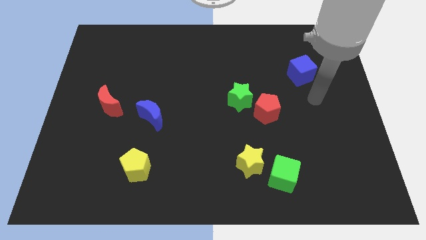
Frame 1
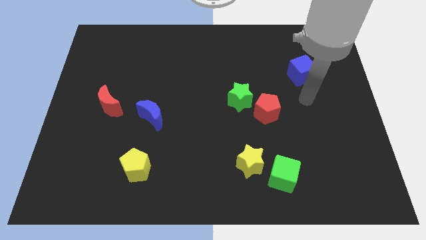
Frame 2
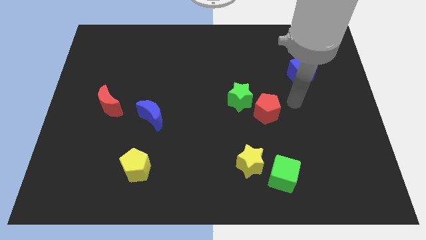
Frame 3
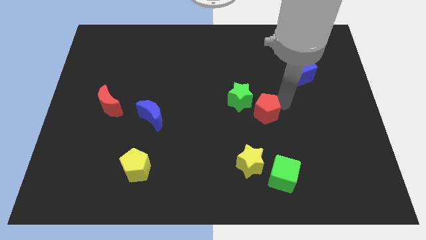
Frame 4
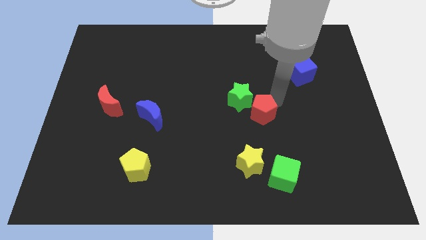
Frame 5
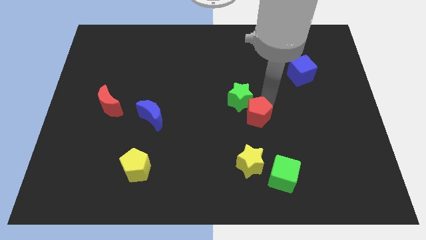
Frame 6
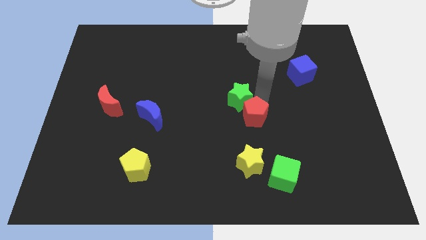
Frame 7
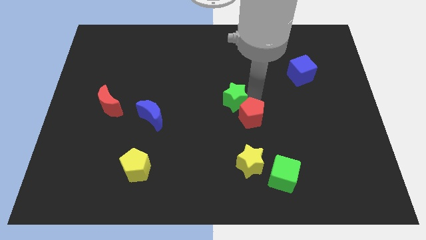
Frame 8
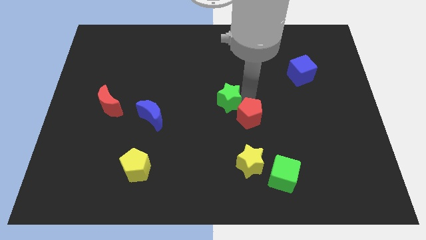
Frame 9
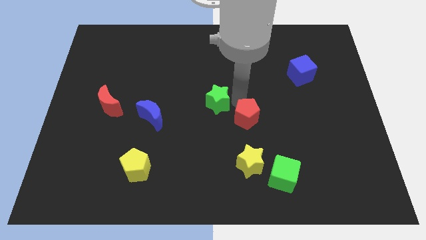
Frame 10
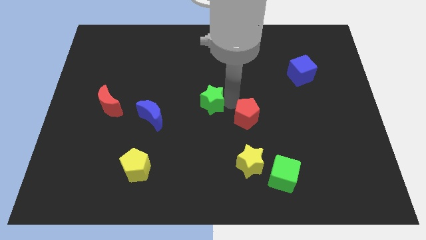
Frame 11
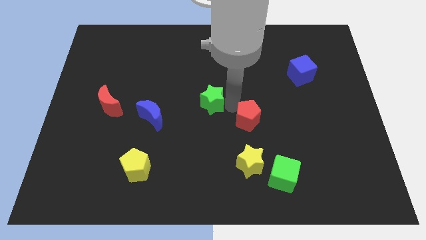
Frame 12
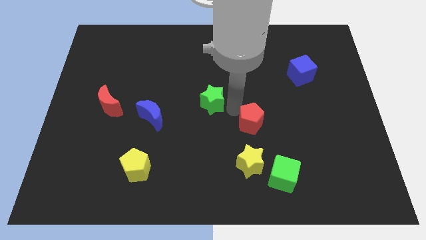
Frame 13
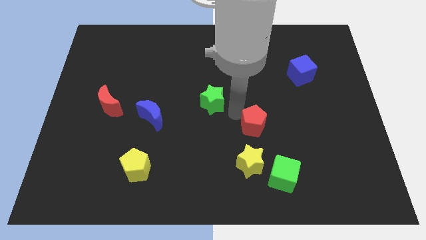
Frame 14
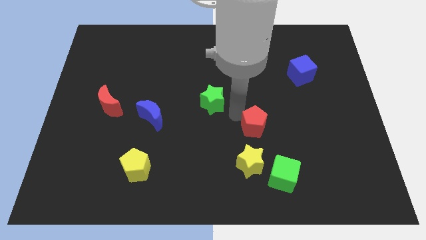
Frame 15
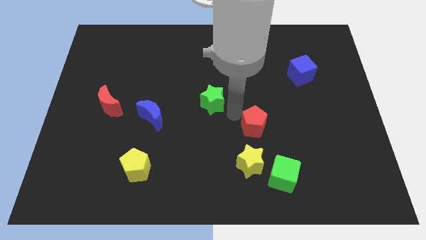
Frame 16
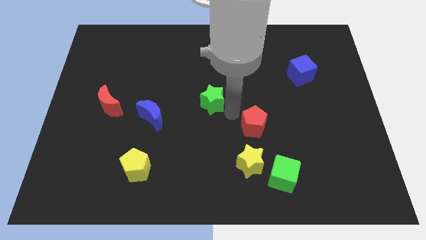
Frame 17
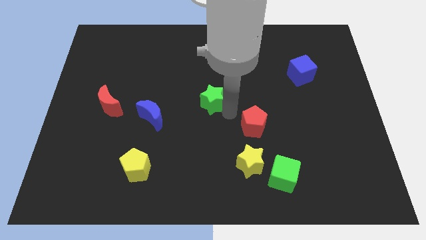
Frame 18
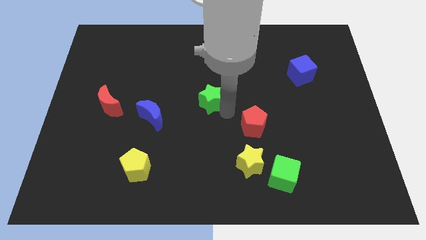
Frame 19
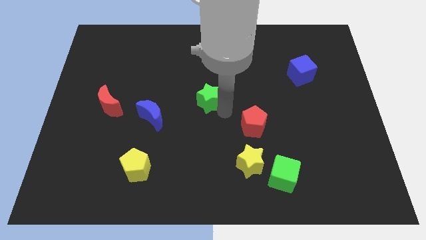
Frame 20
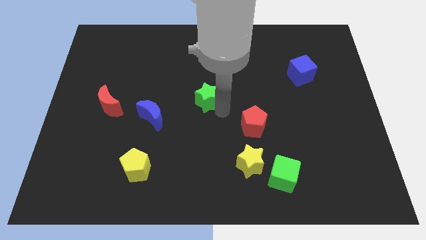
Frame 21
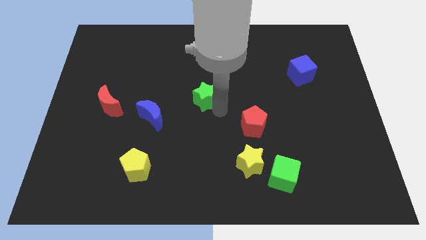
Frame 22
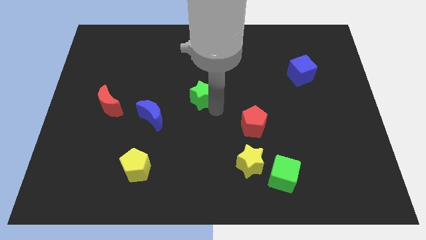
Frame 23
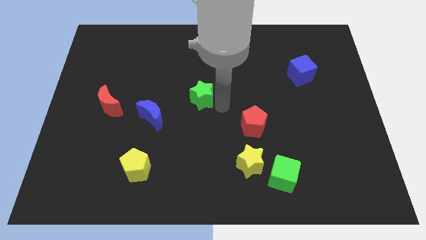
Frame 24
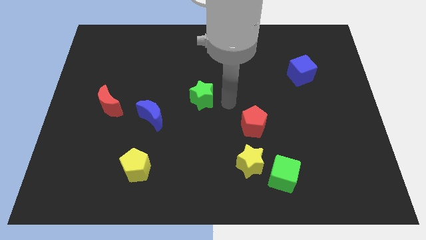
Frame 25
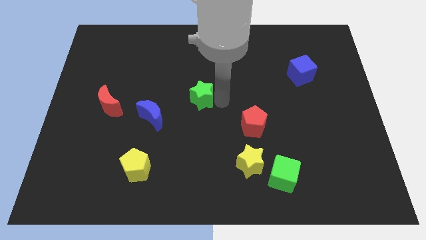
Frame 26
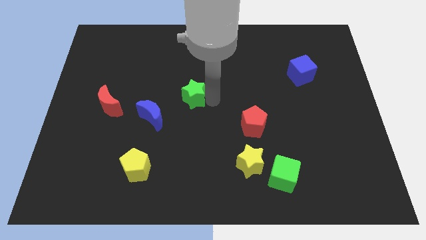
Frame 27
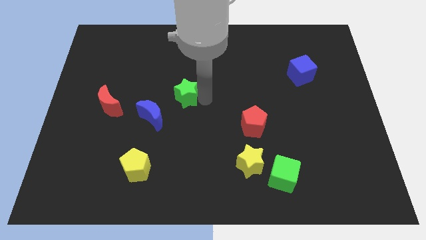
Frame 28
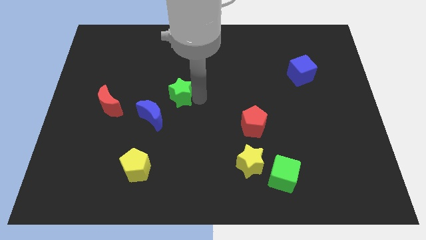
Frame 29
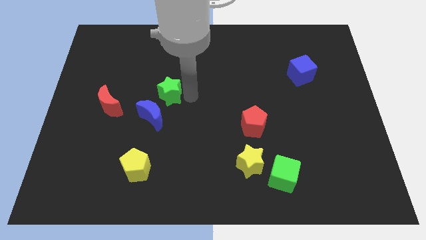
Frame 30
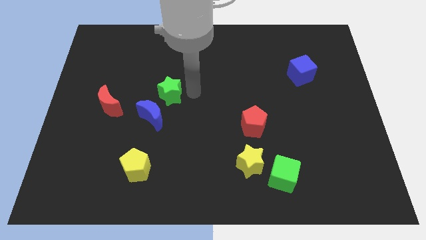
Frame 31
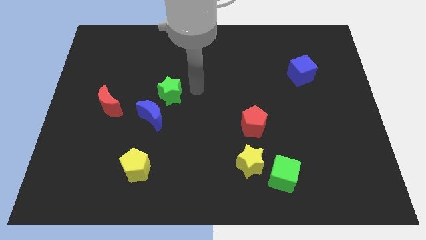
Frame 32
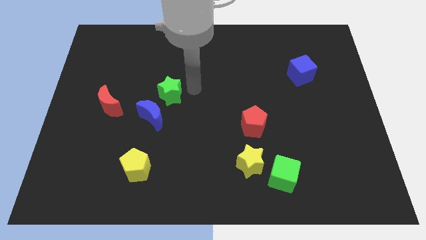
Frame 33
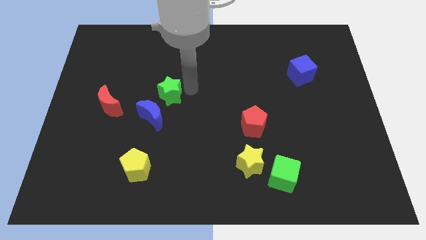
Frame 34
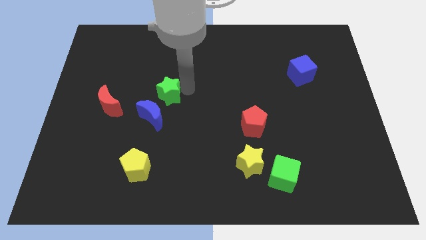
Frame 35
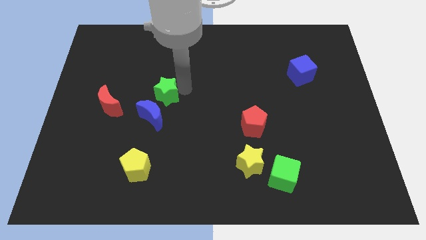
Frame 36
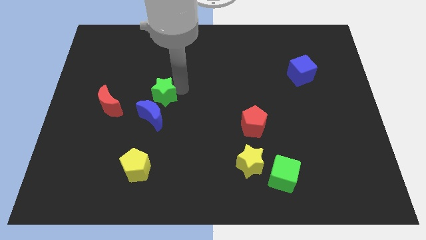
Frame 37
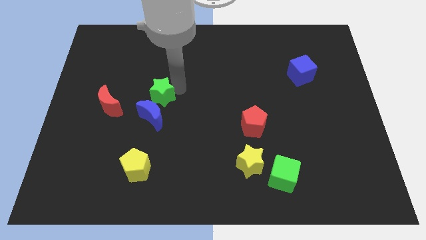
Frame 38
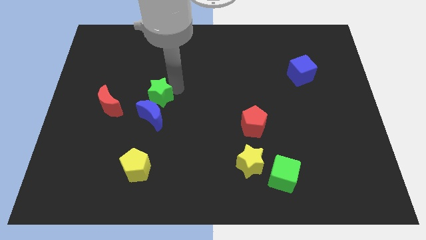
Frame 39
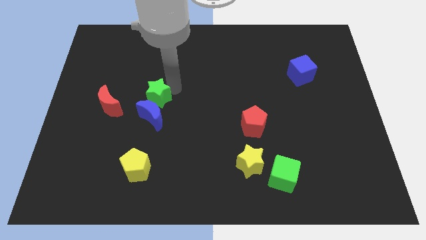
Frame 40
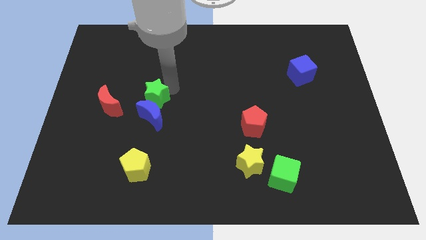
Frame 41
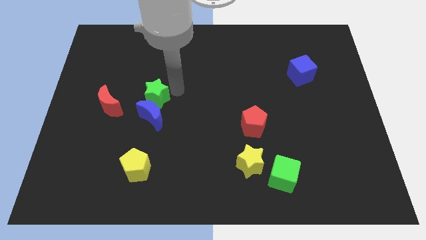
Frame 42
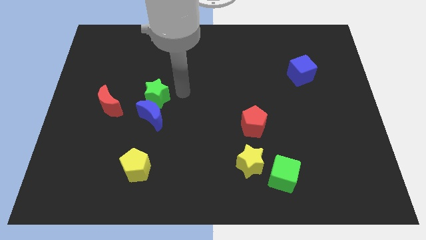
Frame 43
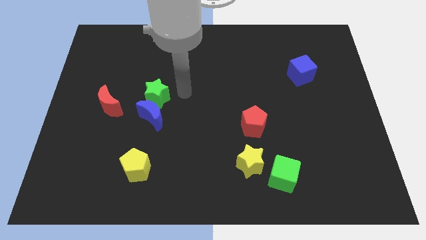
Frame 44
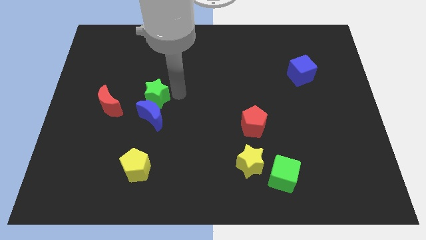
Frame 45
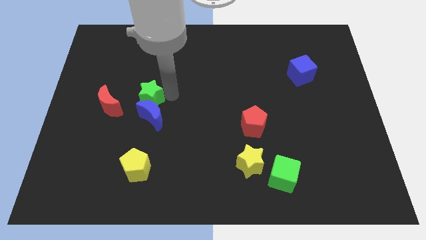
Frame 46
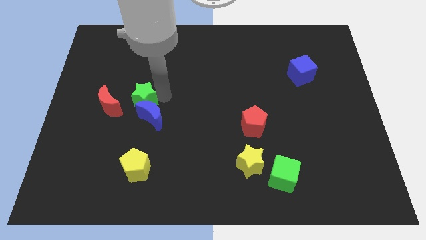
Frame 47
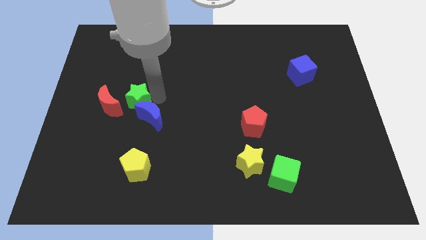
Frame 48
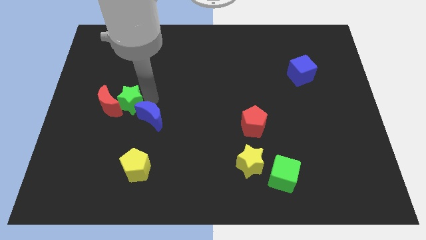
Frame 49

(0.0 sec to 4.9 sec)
move the green star towards the red moon

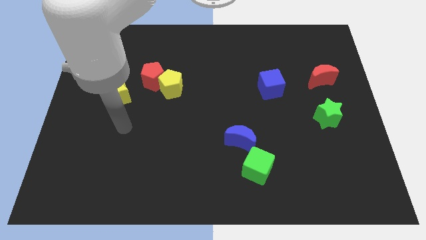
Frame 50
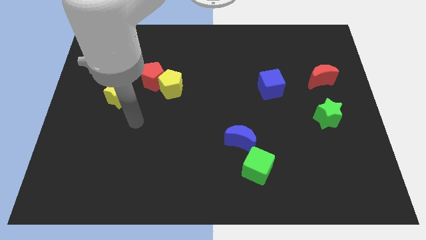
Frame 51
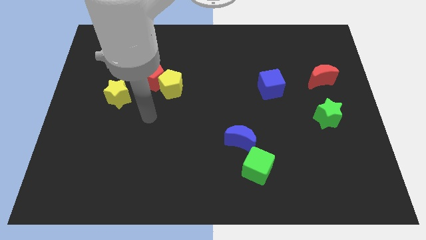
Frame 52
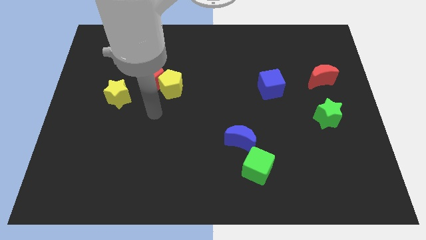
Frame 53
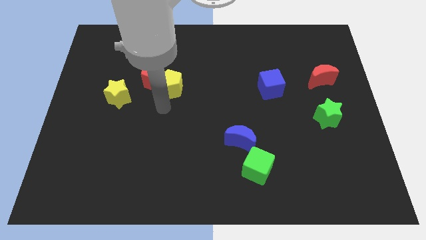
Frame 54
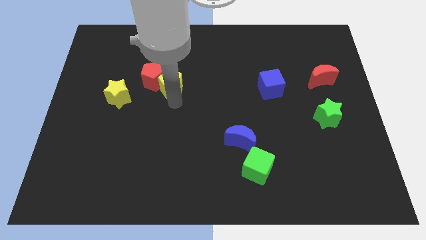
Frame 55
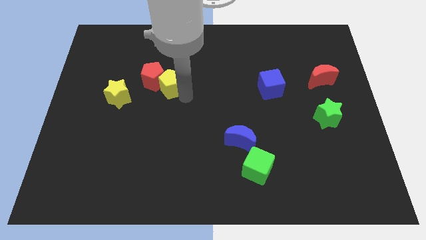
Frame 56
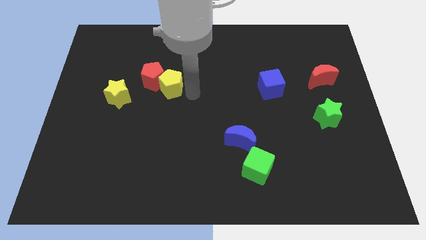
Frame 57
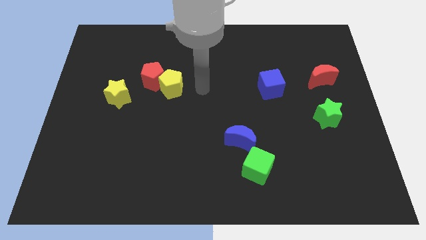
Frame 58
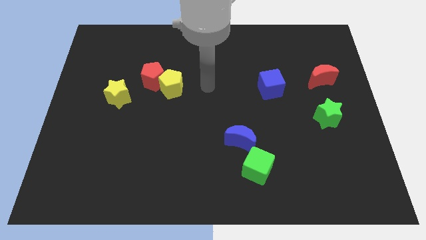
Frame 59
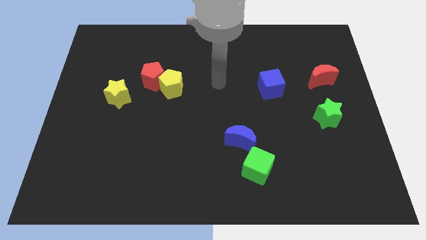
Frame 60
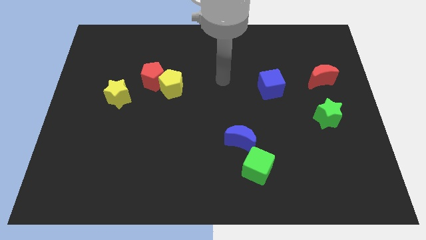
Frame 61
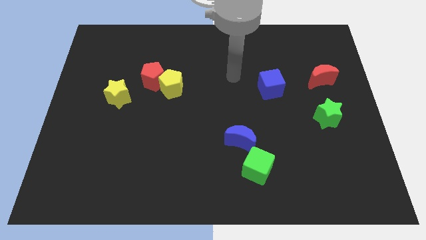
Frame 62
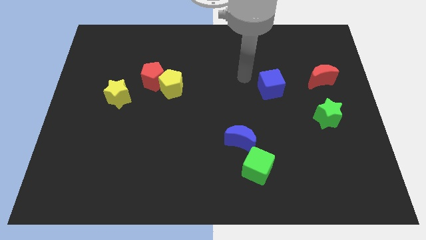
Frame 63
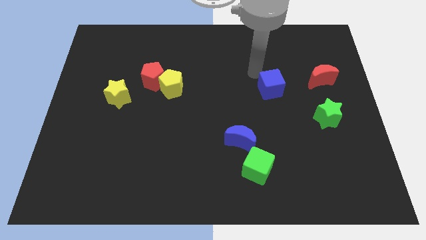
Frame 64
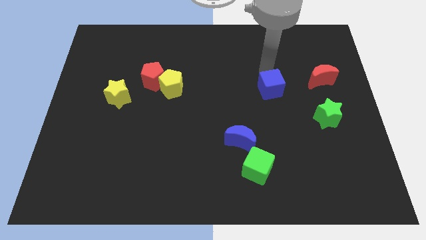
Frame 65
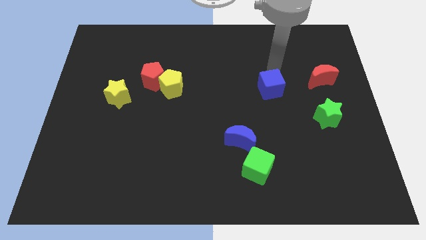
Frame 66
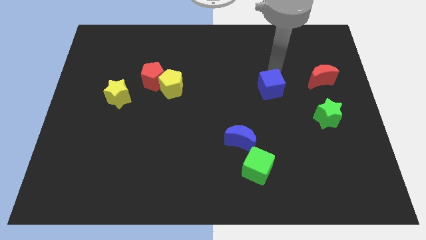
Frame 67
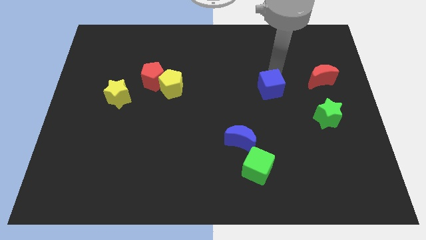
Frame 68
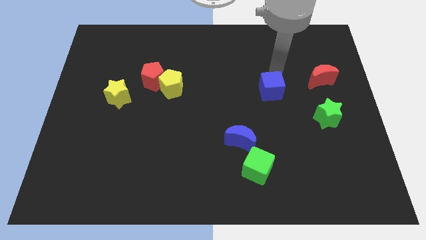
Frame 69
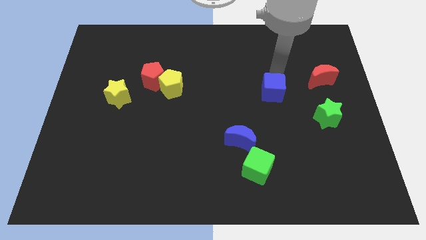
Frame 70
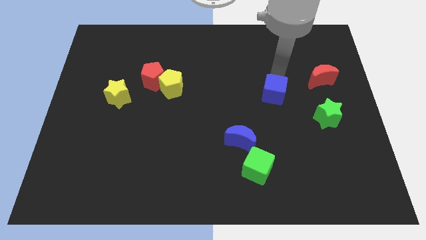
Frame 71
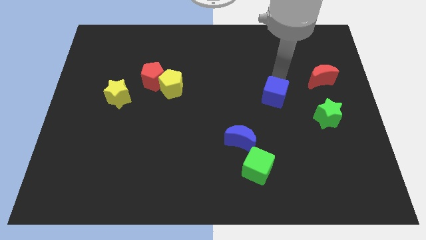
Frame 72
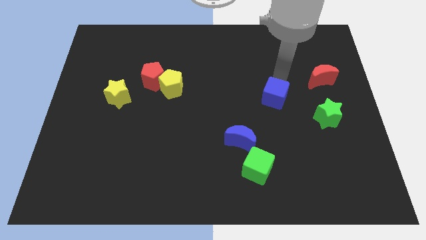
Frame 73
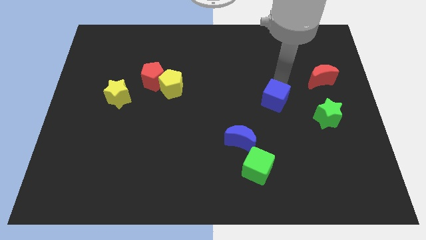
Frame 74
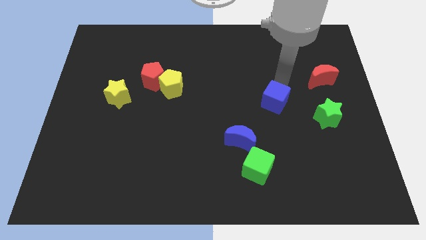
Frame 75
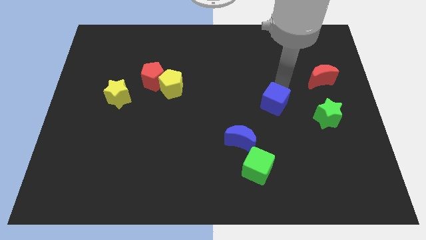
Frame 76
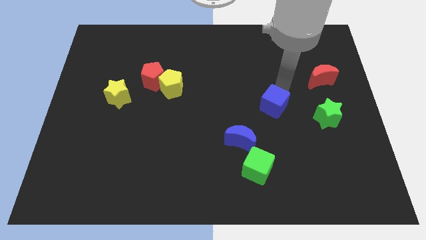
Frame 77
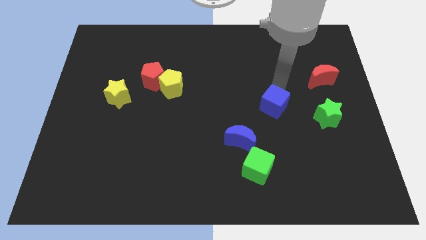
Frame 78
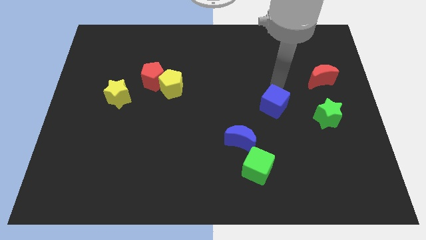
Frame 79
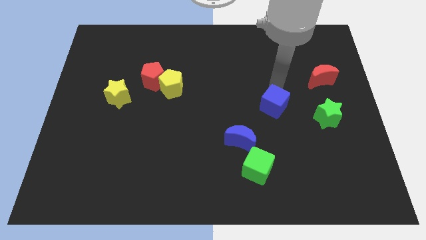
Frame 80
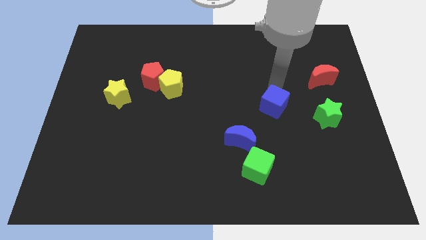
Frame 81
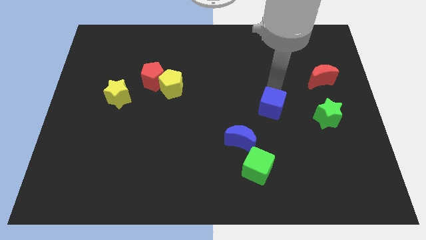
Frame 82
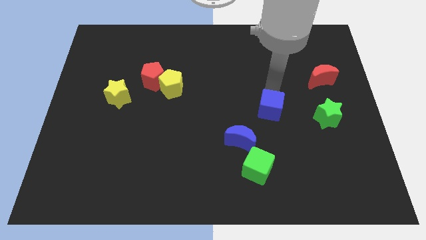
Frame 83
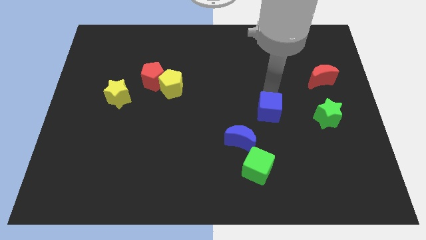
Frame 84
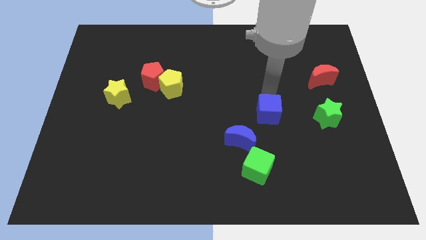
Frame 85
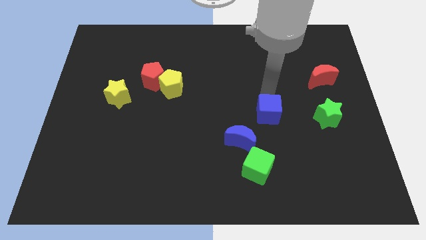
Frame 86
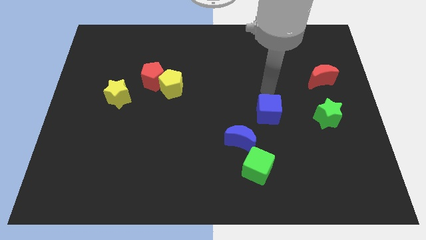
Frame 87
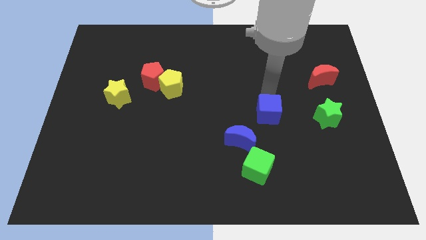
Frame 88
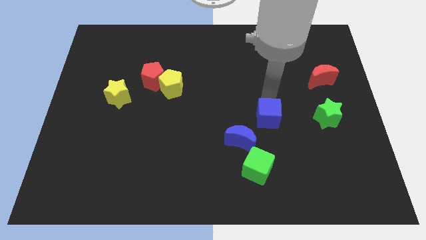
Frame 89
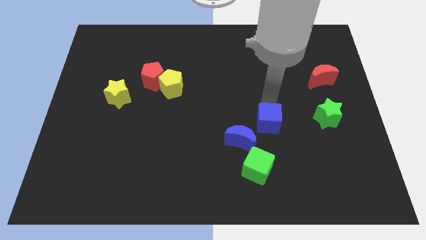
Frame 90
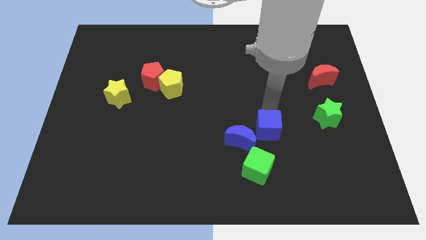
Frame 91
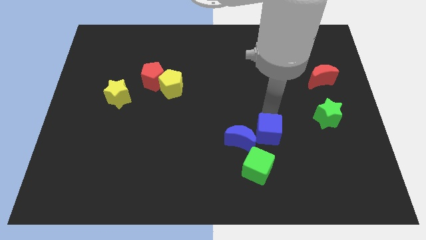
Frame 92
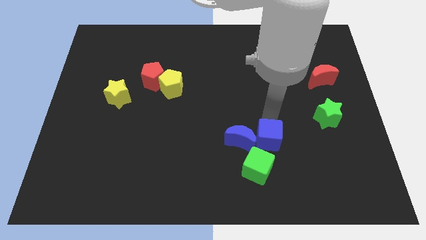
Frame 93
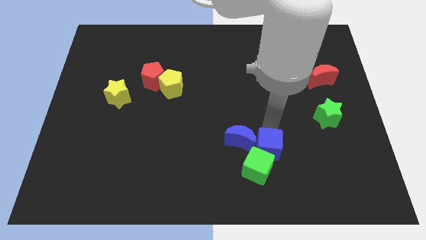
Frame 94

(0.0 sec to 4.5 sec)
put the blue cube close to the green cube
